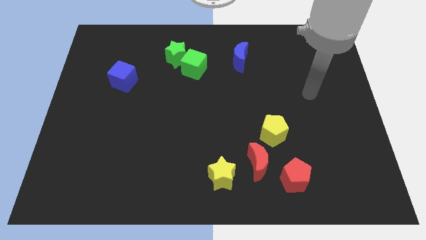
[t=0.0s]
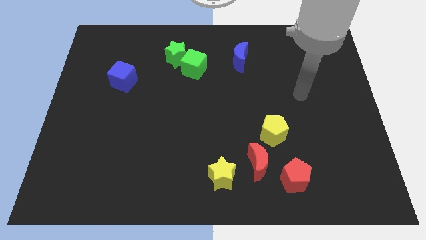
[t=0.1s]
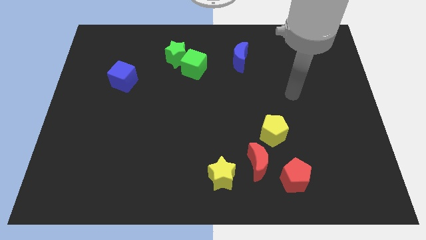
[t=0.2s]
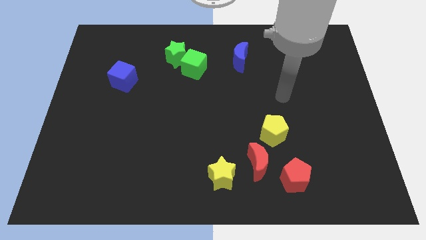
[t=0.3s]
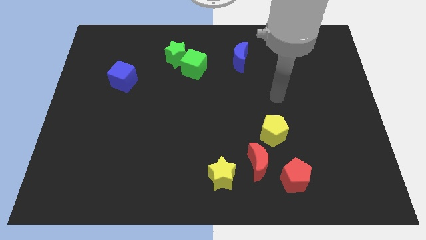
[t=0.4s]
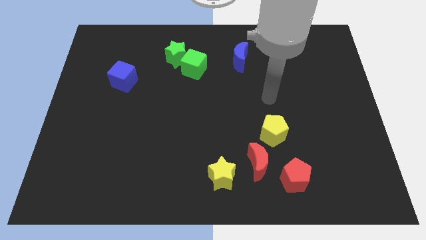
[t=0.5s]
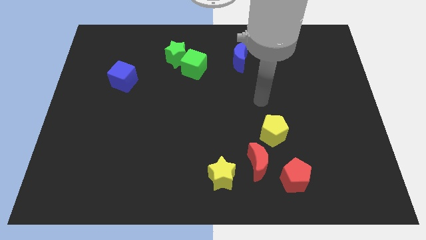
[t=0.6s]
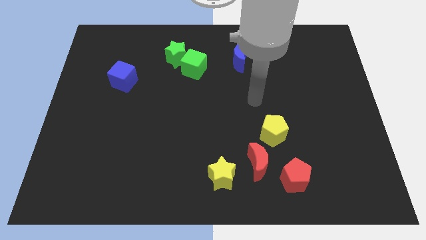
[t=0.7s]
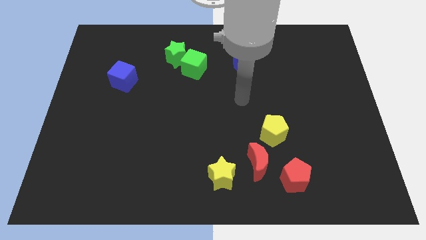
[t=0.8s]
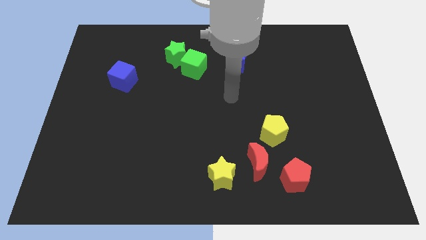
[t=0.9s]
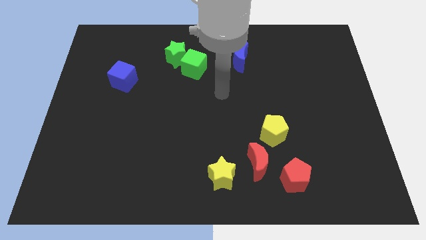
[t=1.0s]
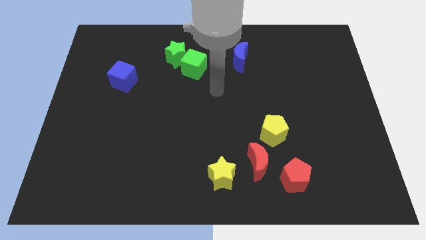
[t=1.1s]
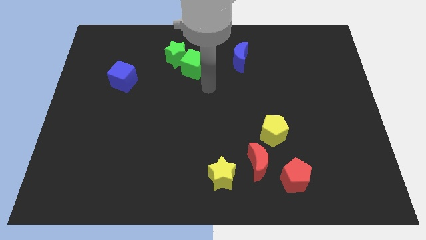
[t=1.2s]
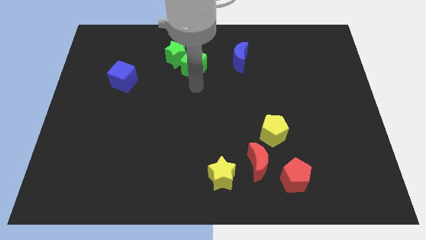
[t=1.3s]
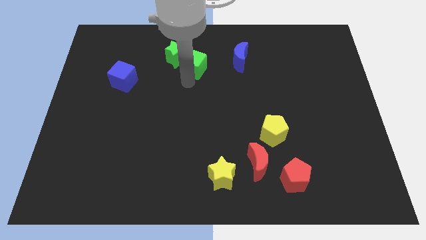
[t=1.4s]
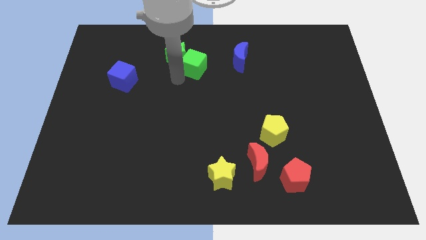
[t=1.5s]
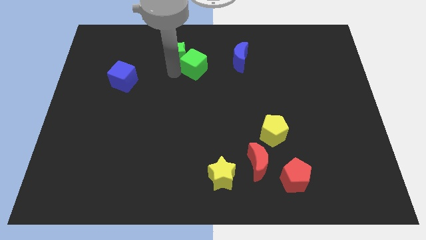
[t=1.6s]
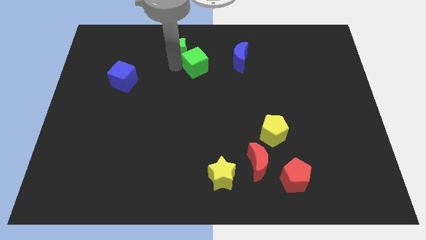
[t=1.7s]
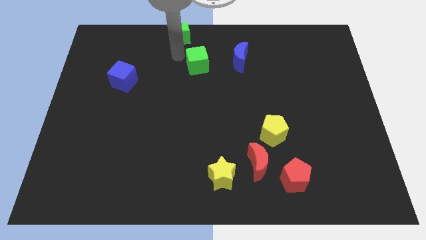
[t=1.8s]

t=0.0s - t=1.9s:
move the green cube away from the green star

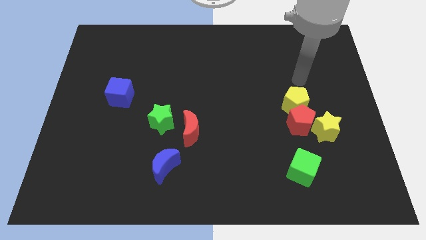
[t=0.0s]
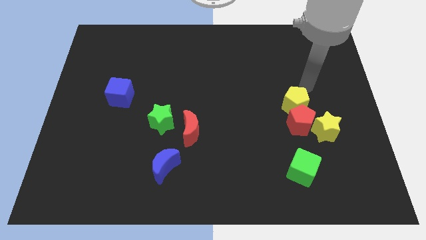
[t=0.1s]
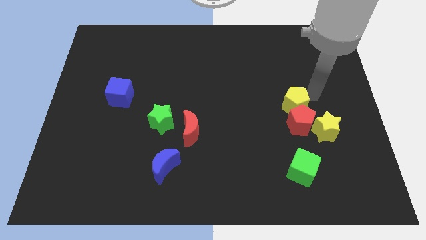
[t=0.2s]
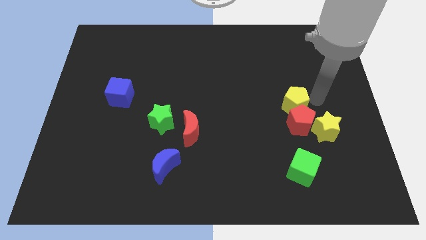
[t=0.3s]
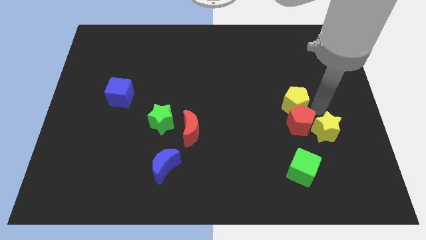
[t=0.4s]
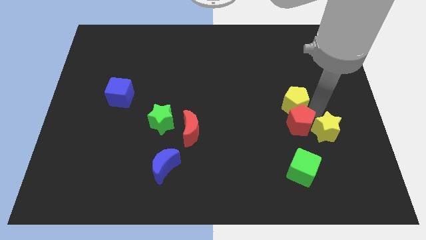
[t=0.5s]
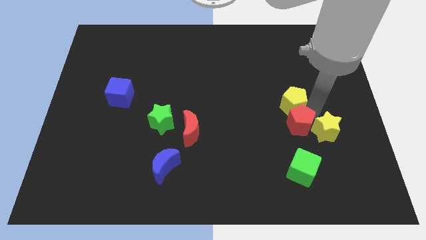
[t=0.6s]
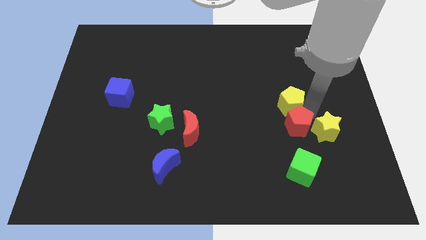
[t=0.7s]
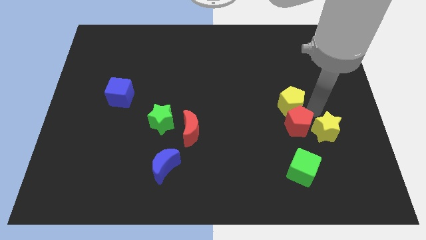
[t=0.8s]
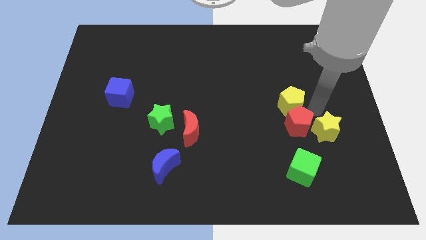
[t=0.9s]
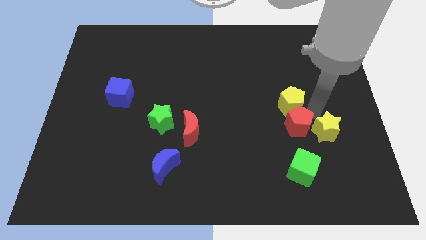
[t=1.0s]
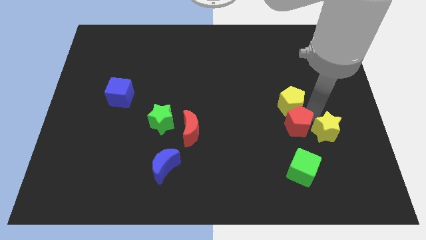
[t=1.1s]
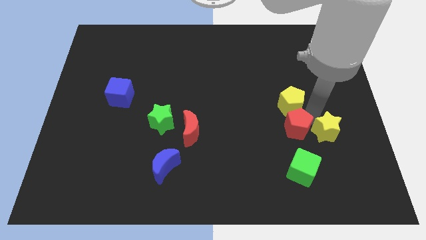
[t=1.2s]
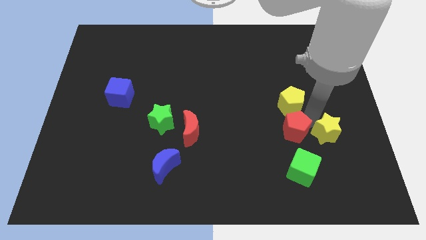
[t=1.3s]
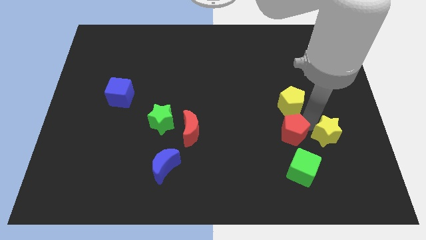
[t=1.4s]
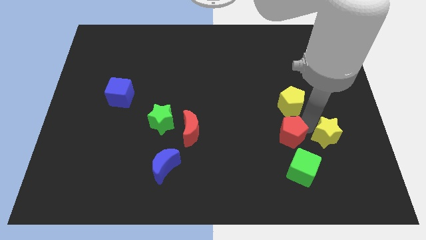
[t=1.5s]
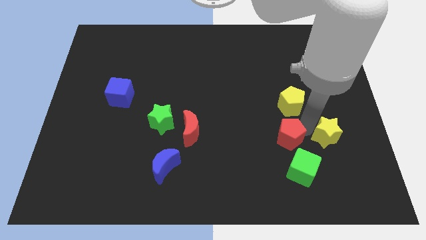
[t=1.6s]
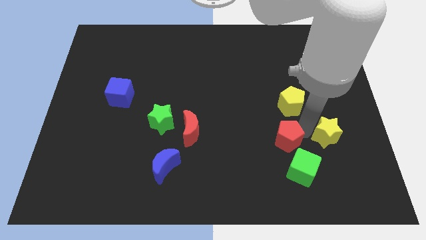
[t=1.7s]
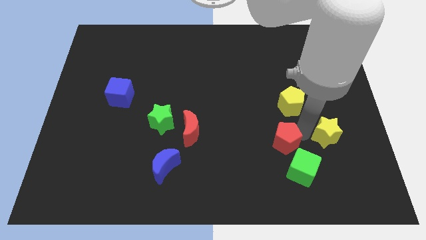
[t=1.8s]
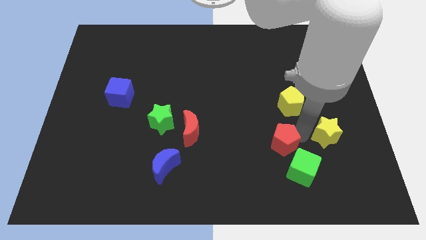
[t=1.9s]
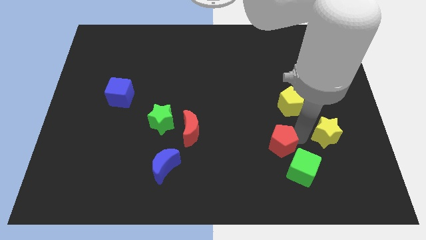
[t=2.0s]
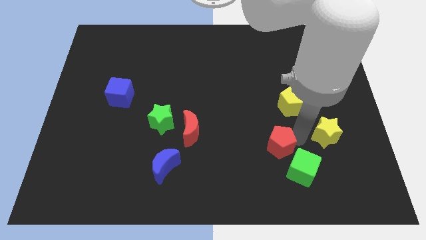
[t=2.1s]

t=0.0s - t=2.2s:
pull the red pentagon apart from the yellow pentagon and yellow star

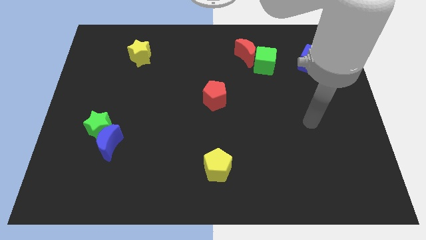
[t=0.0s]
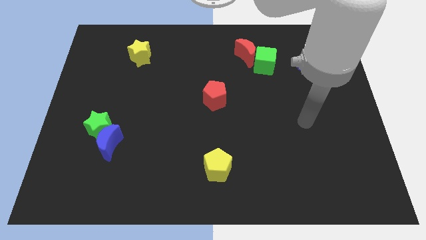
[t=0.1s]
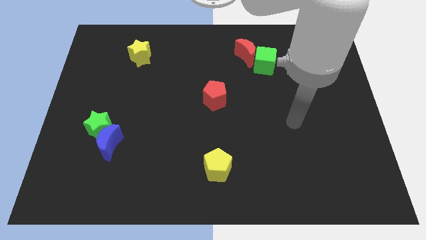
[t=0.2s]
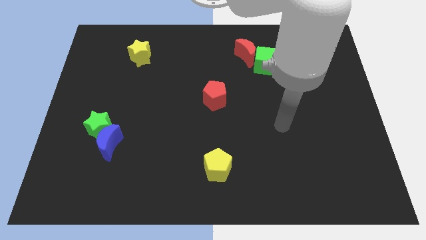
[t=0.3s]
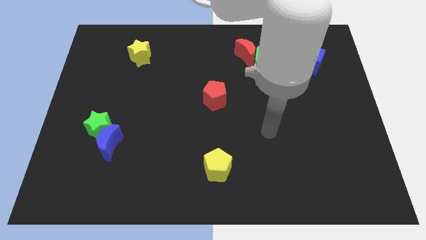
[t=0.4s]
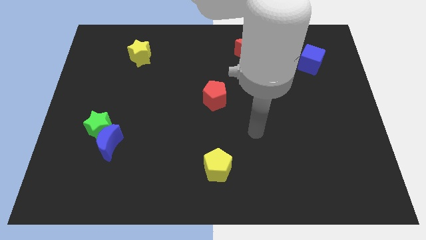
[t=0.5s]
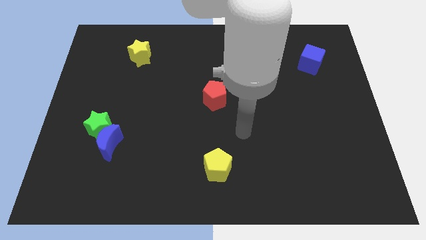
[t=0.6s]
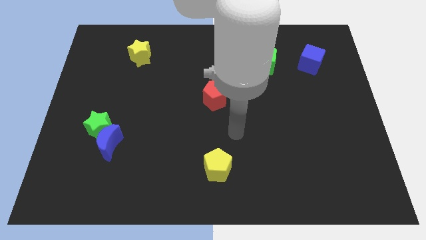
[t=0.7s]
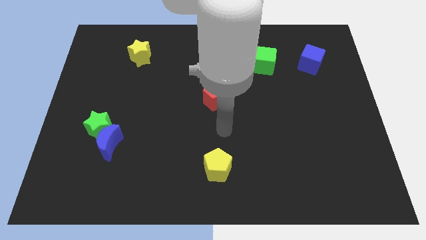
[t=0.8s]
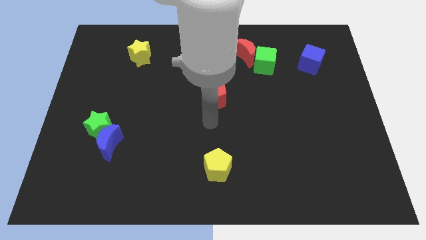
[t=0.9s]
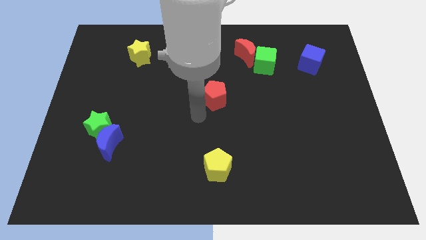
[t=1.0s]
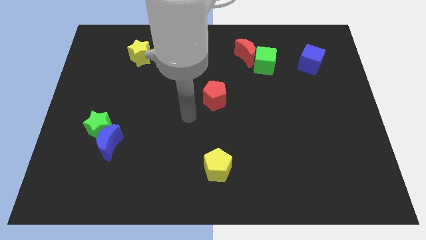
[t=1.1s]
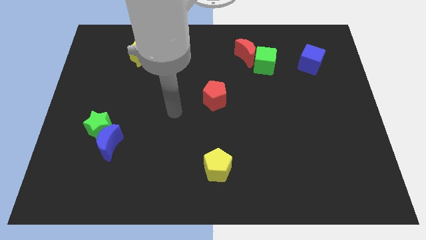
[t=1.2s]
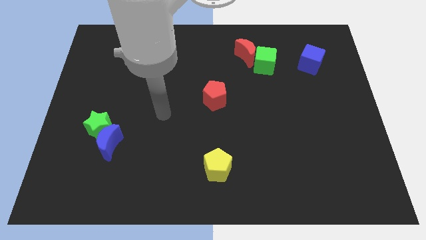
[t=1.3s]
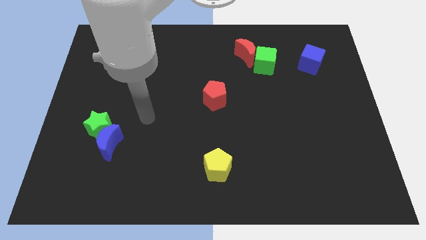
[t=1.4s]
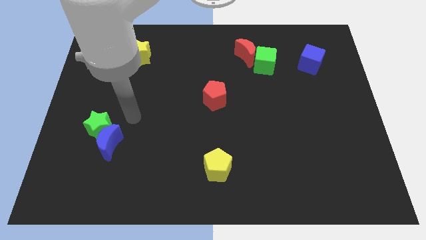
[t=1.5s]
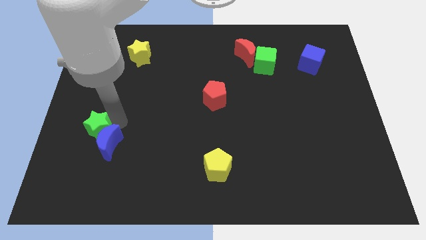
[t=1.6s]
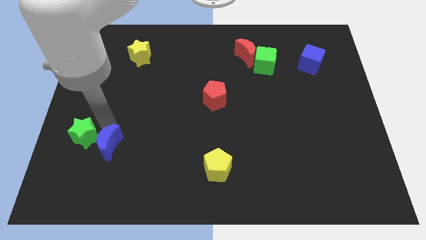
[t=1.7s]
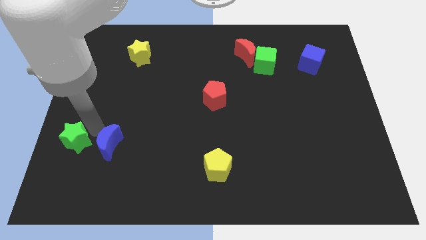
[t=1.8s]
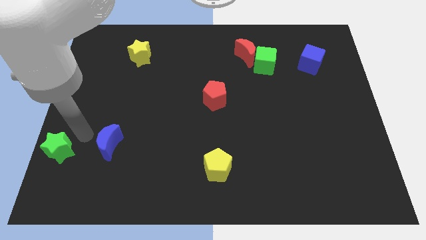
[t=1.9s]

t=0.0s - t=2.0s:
pull the blue moon apart from the green star

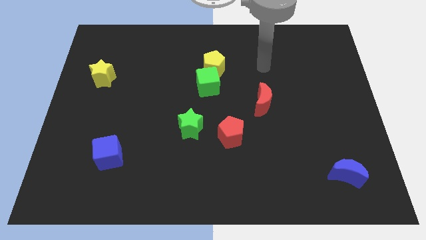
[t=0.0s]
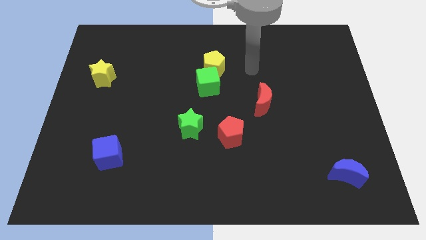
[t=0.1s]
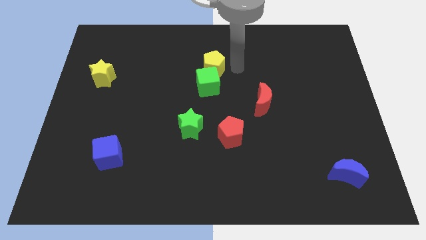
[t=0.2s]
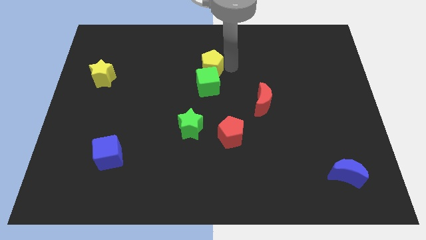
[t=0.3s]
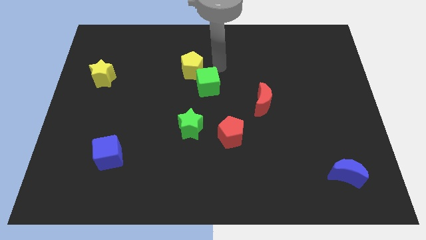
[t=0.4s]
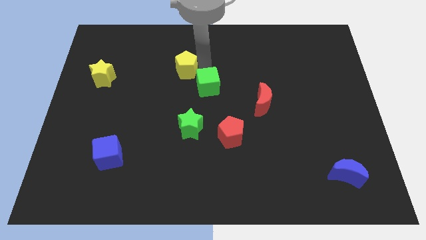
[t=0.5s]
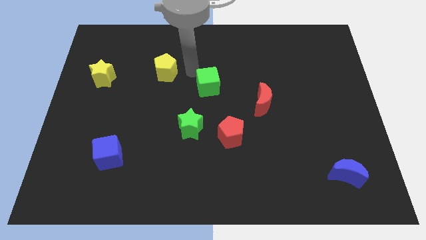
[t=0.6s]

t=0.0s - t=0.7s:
move the green cube away from the yellow pentagon

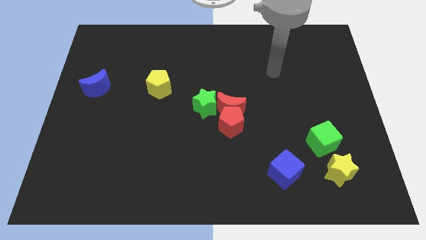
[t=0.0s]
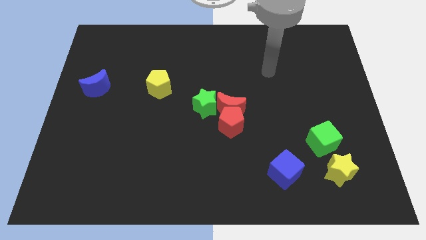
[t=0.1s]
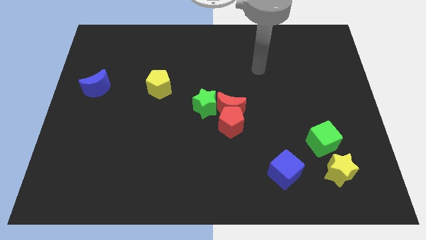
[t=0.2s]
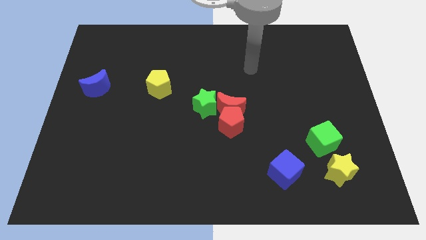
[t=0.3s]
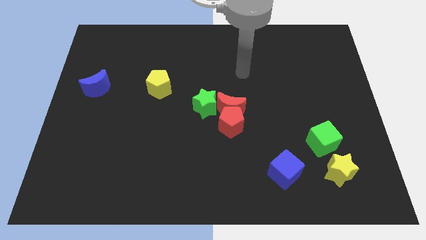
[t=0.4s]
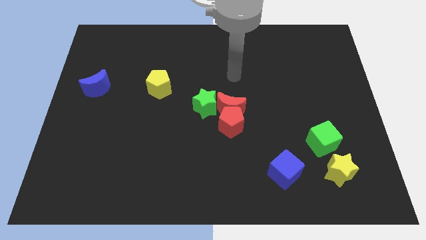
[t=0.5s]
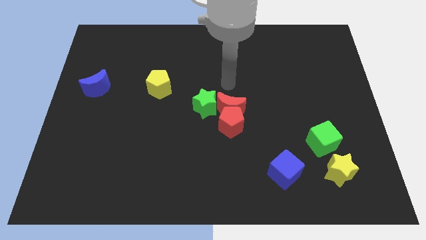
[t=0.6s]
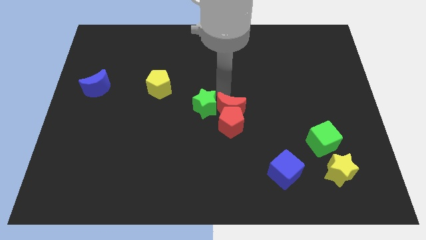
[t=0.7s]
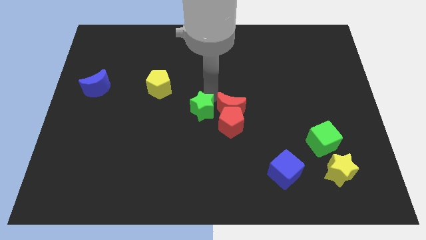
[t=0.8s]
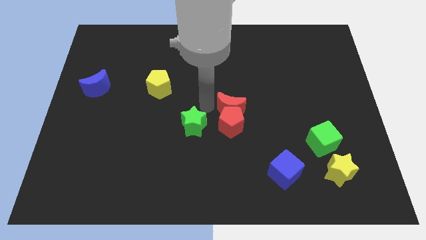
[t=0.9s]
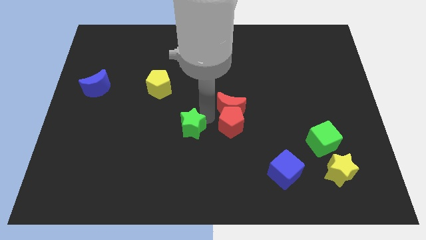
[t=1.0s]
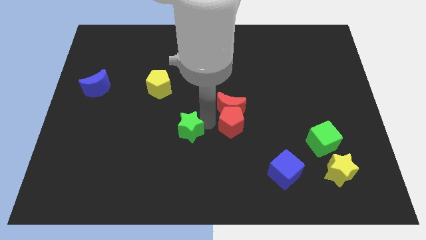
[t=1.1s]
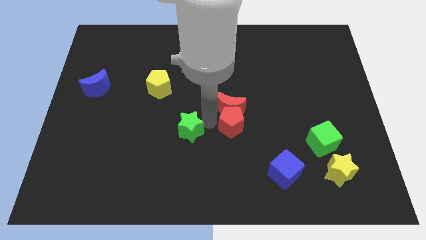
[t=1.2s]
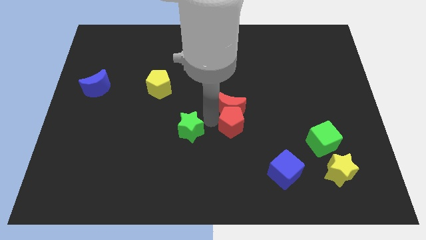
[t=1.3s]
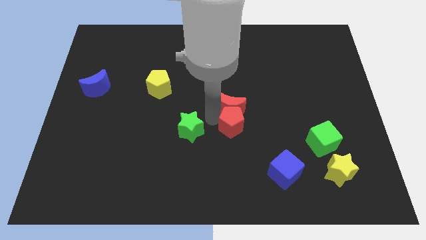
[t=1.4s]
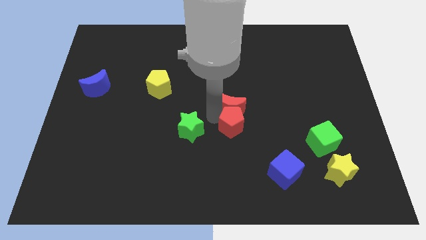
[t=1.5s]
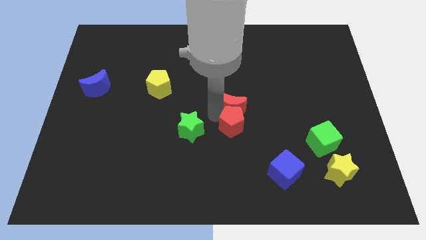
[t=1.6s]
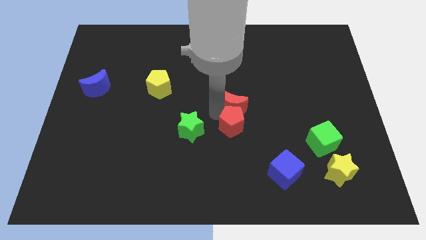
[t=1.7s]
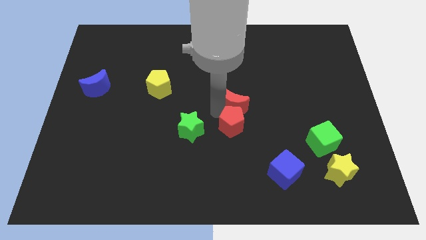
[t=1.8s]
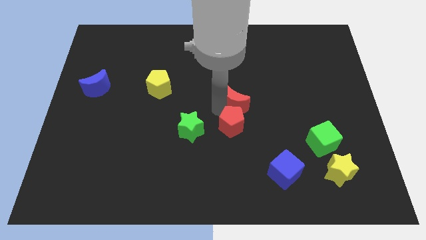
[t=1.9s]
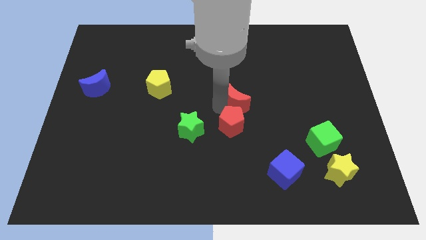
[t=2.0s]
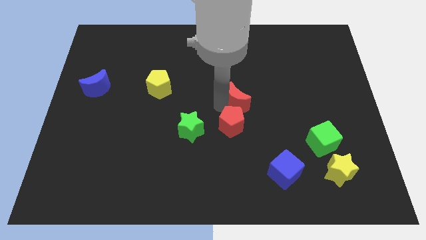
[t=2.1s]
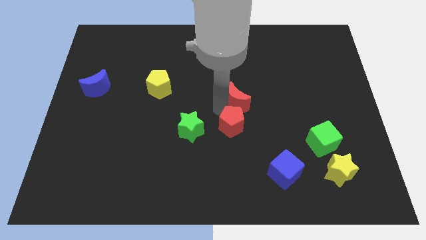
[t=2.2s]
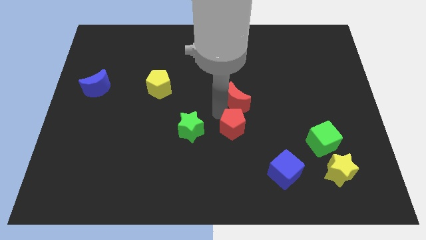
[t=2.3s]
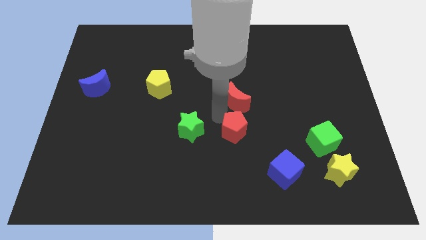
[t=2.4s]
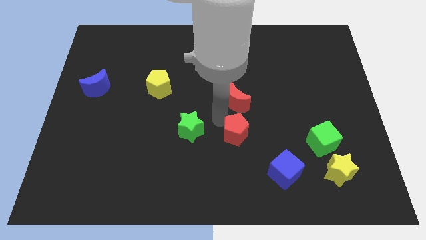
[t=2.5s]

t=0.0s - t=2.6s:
pull the red moon apart from the red pentagon and green star
